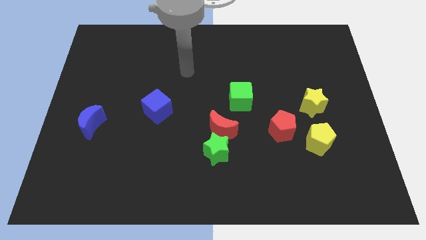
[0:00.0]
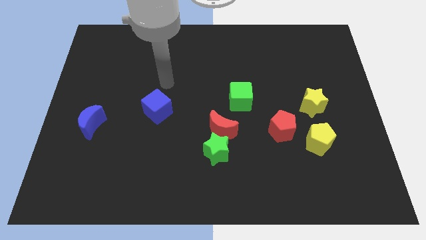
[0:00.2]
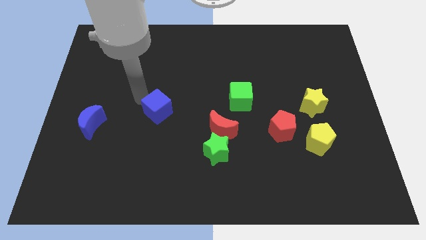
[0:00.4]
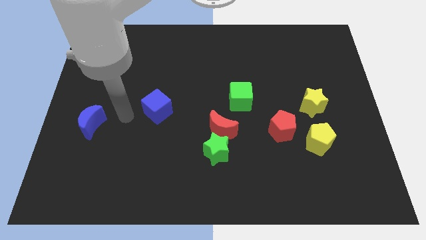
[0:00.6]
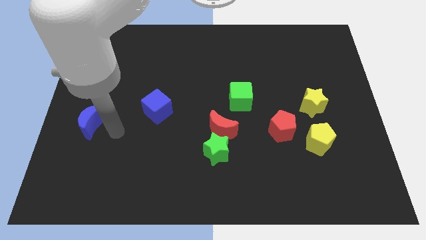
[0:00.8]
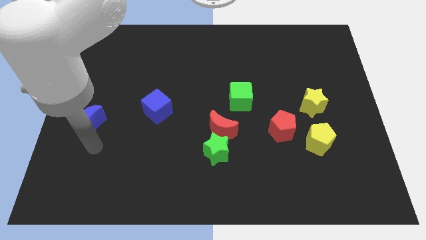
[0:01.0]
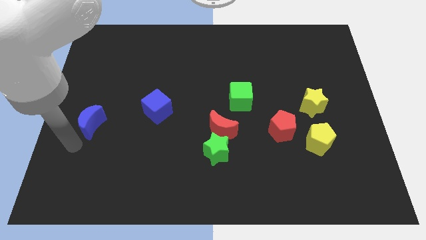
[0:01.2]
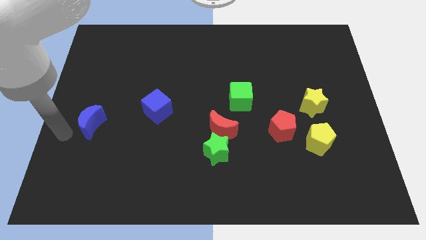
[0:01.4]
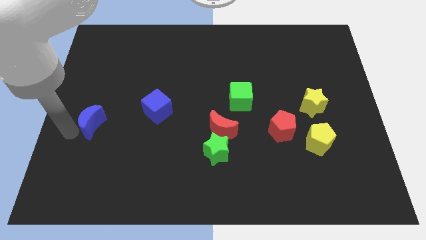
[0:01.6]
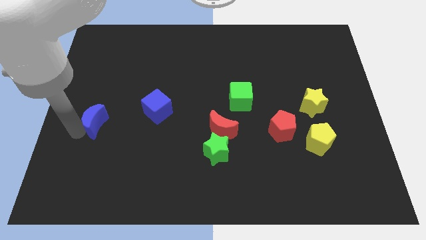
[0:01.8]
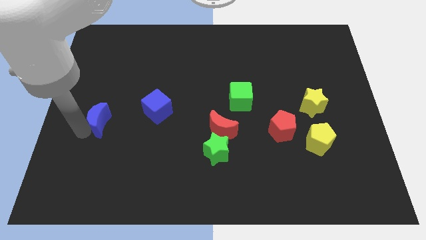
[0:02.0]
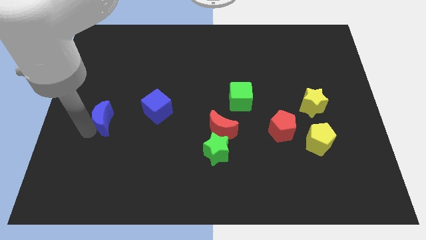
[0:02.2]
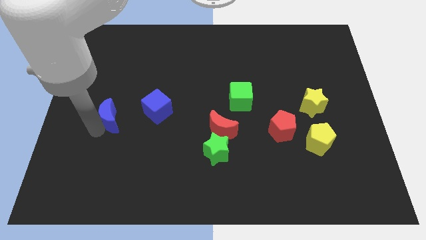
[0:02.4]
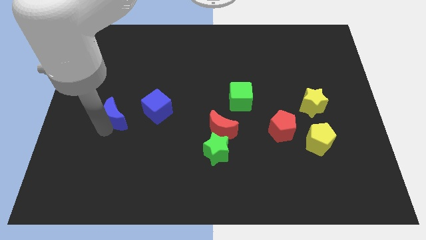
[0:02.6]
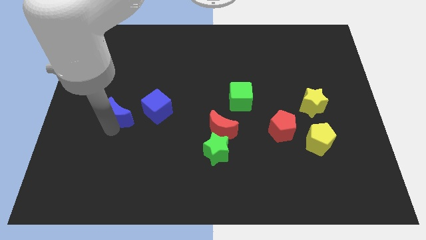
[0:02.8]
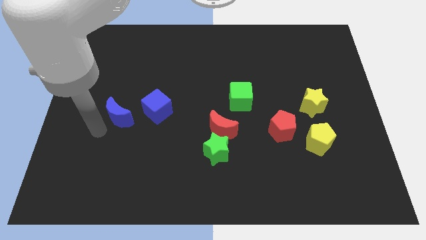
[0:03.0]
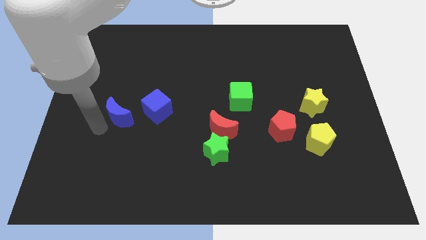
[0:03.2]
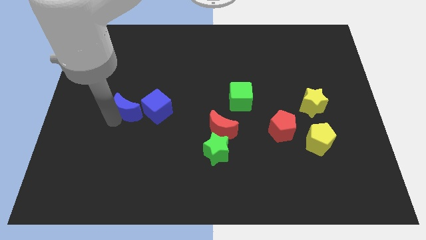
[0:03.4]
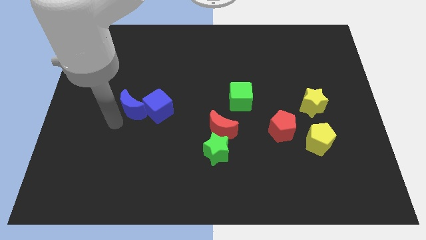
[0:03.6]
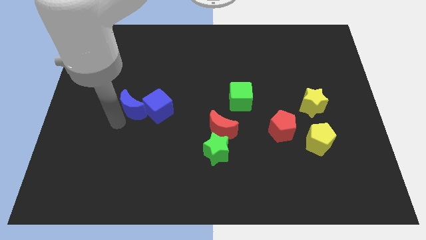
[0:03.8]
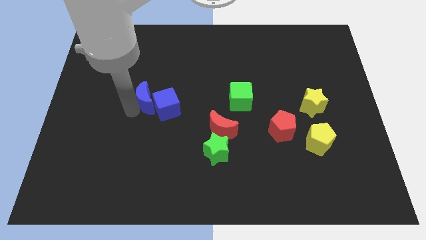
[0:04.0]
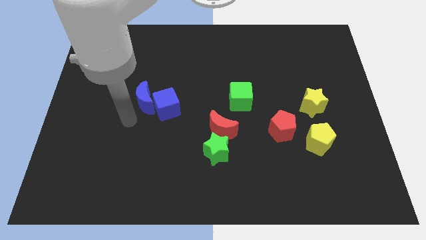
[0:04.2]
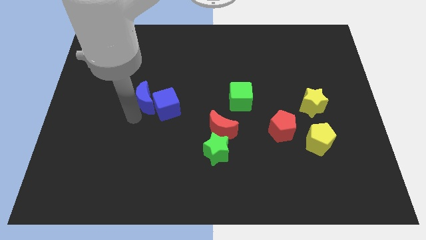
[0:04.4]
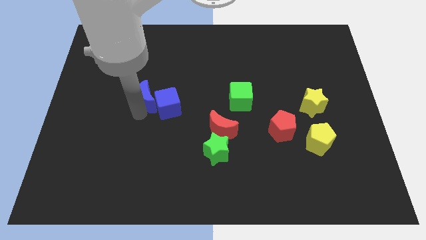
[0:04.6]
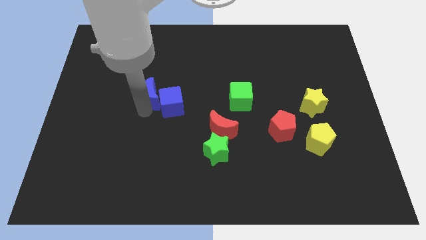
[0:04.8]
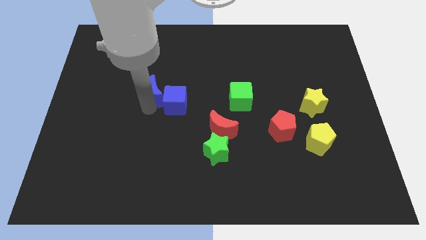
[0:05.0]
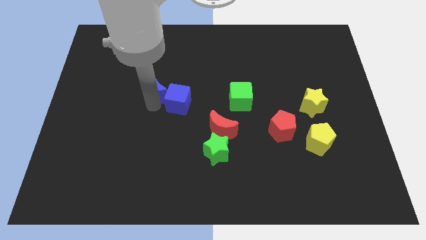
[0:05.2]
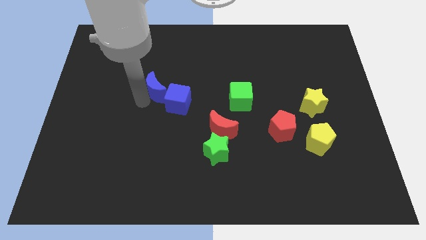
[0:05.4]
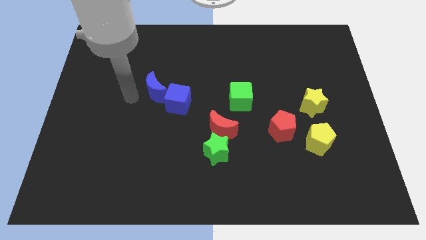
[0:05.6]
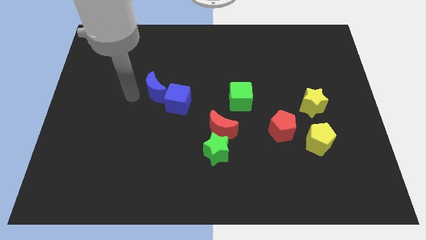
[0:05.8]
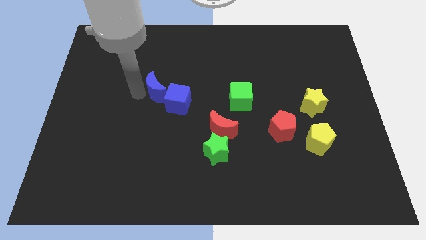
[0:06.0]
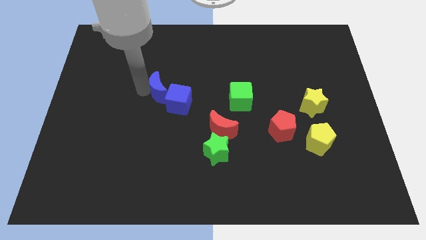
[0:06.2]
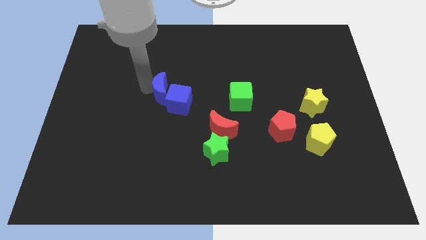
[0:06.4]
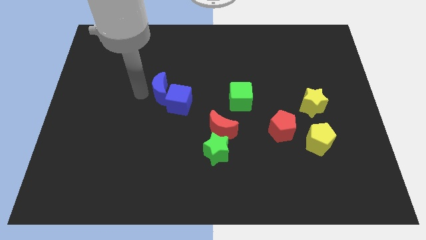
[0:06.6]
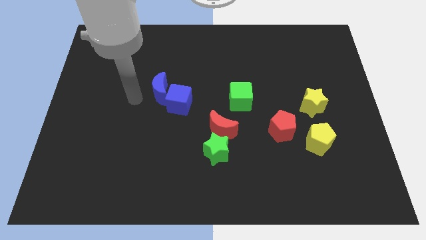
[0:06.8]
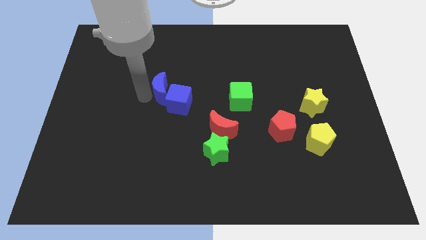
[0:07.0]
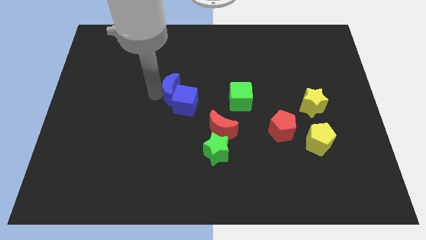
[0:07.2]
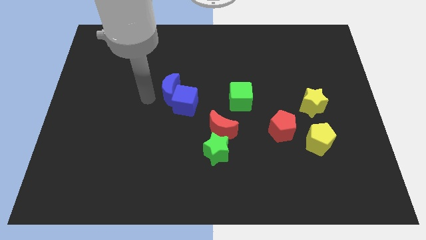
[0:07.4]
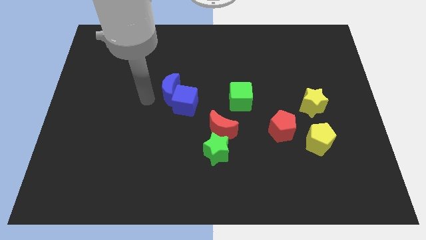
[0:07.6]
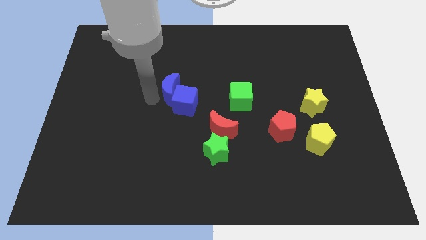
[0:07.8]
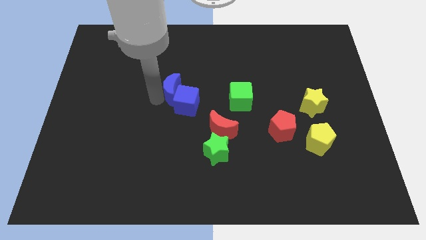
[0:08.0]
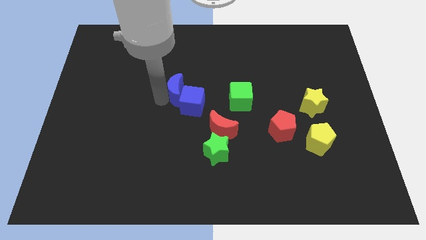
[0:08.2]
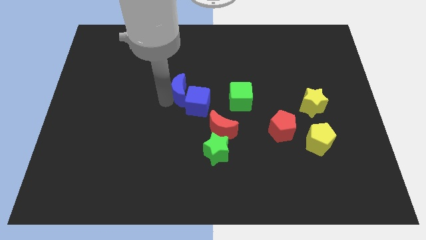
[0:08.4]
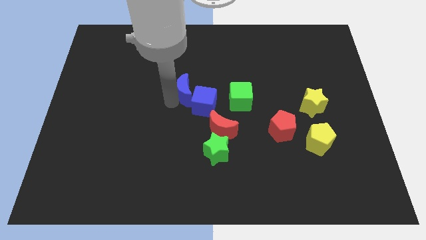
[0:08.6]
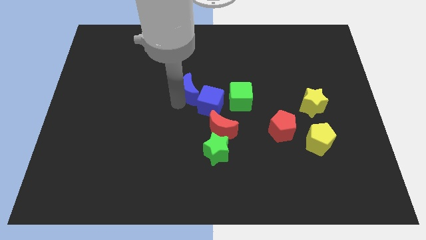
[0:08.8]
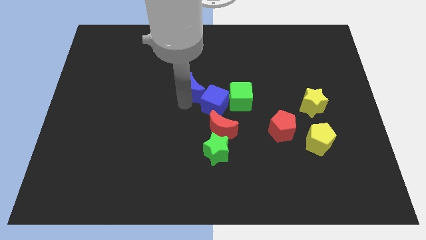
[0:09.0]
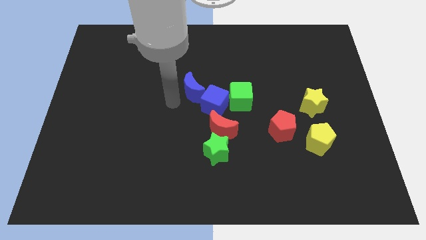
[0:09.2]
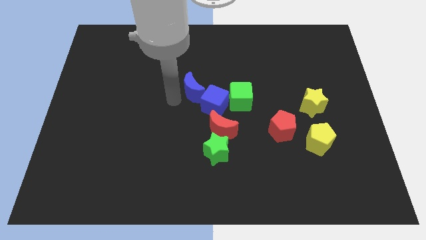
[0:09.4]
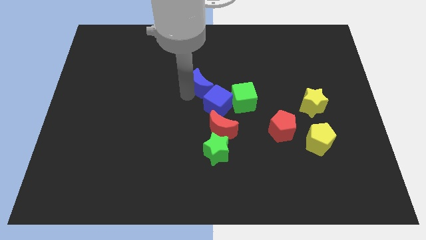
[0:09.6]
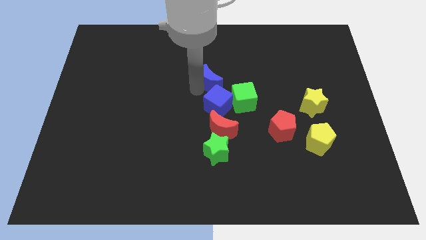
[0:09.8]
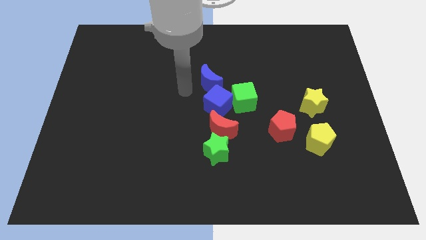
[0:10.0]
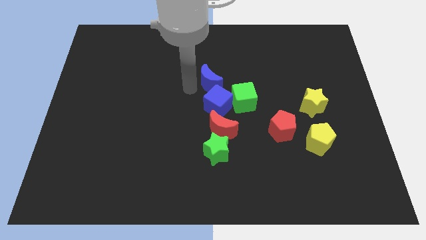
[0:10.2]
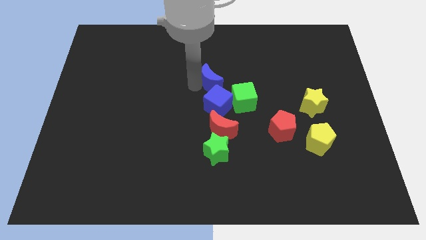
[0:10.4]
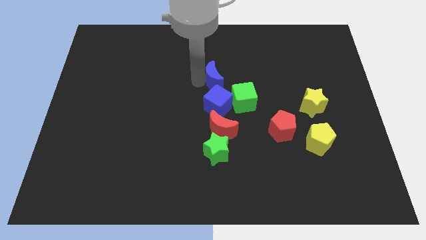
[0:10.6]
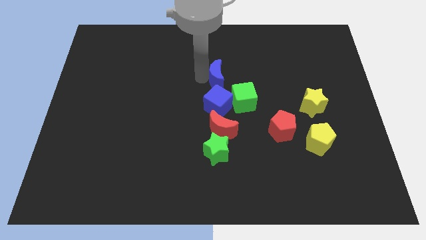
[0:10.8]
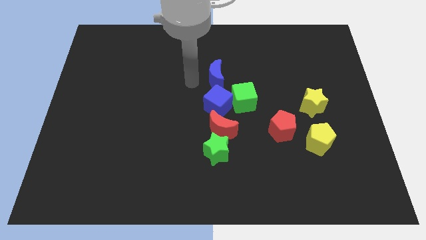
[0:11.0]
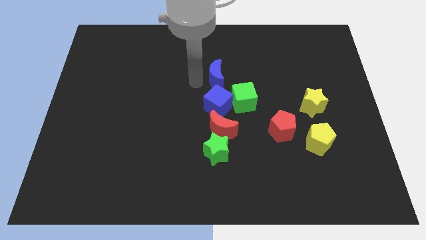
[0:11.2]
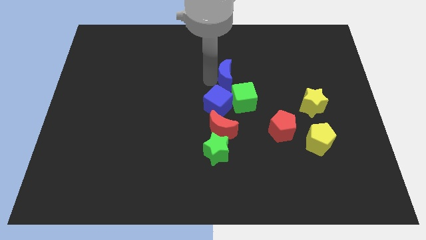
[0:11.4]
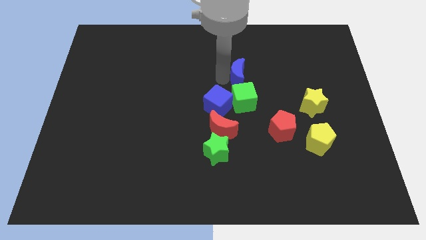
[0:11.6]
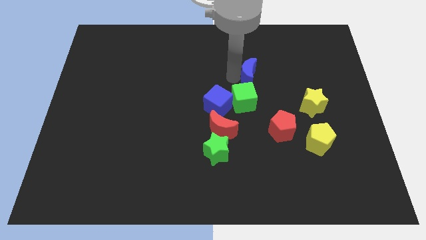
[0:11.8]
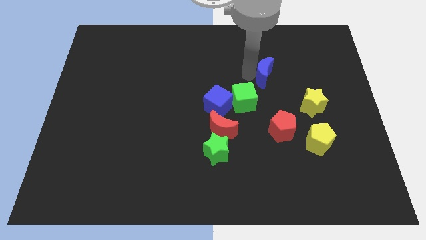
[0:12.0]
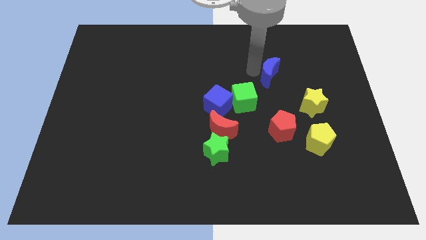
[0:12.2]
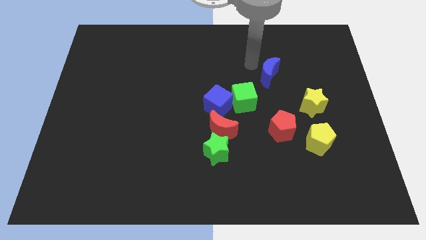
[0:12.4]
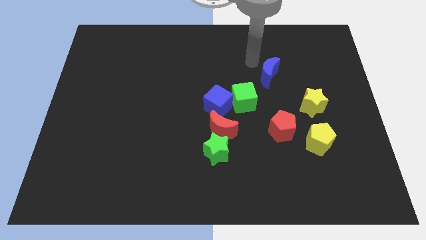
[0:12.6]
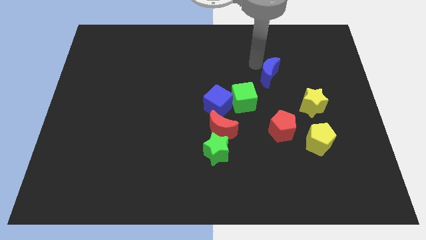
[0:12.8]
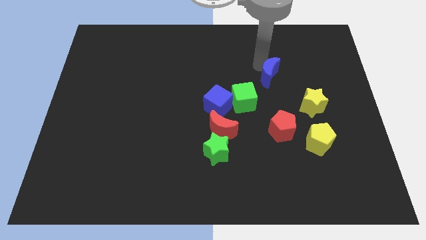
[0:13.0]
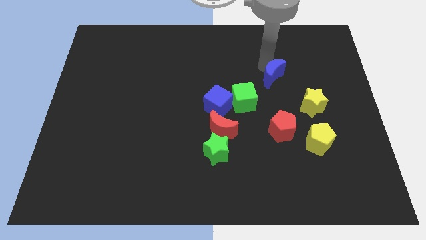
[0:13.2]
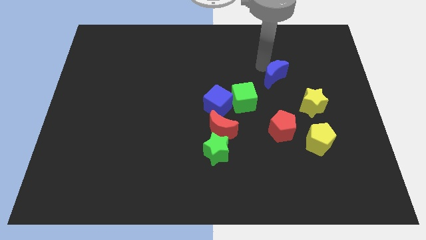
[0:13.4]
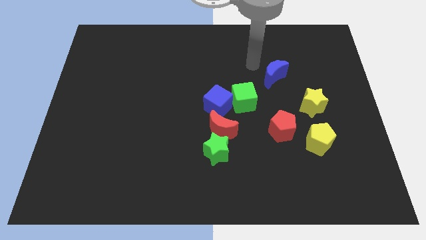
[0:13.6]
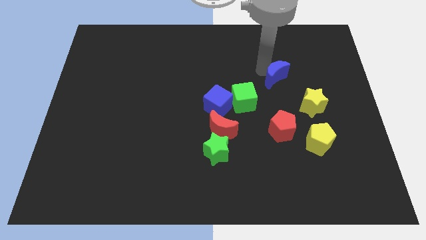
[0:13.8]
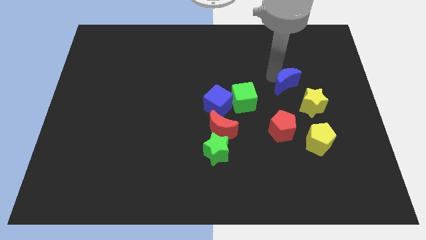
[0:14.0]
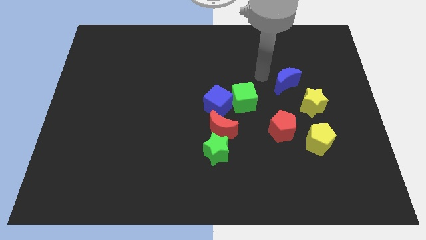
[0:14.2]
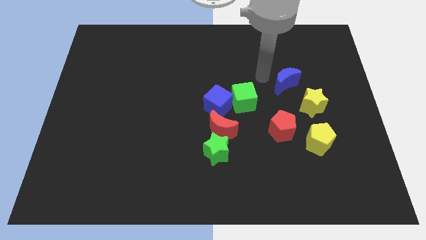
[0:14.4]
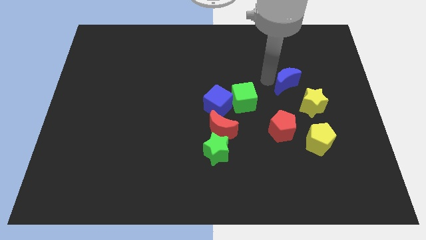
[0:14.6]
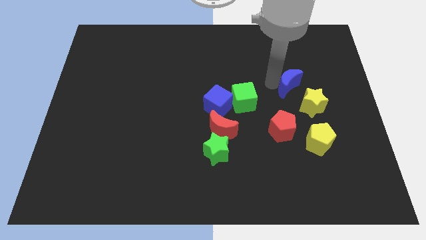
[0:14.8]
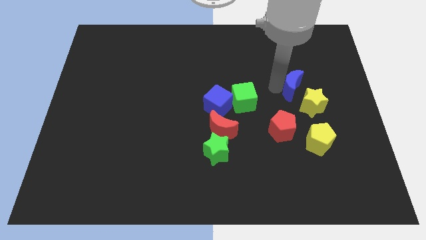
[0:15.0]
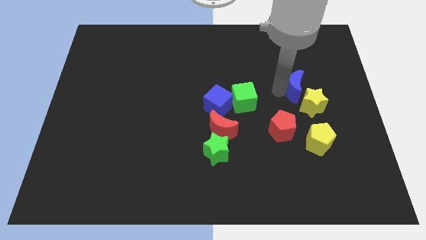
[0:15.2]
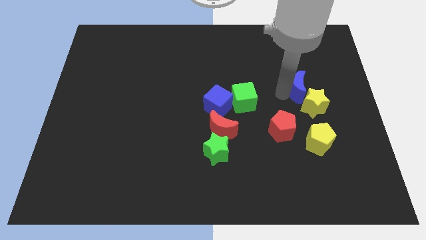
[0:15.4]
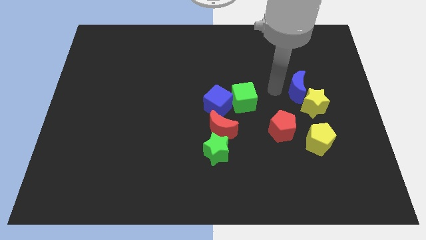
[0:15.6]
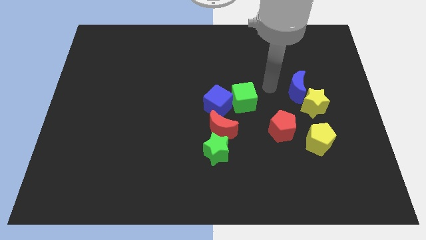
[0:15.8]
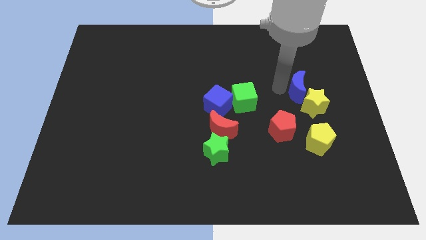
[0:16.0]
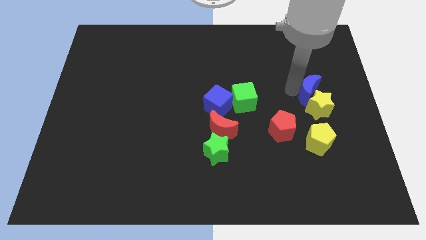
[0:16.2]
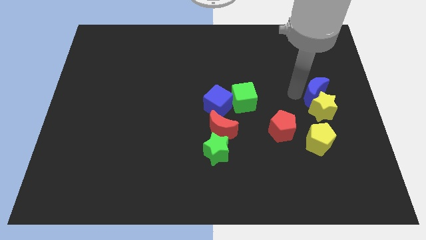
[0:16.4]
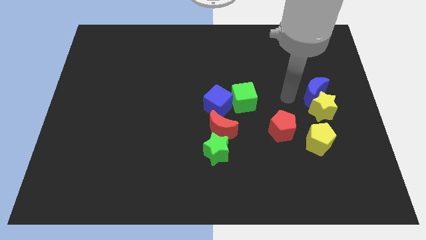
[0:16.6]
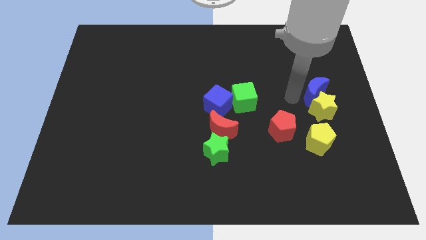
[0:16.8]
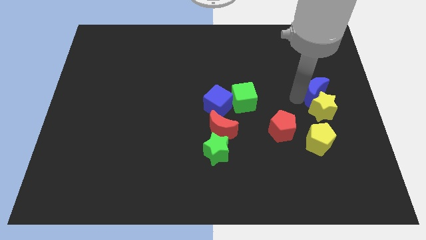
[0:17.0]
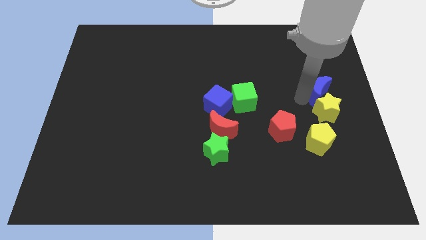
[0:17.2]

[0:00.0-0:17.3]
put the blue moon to the right side of the board
